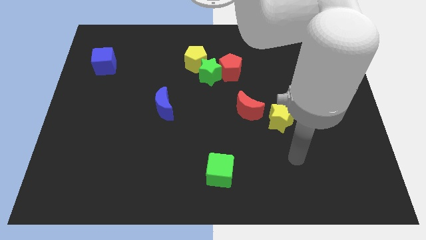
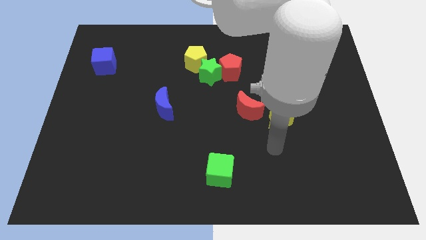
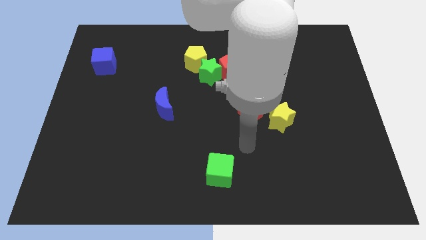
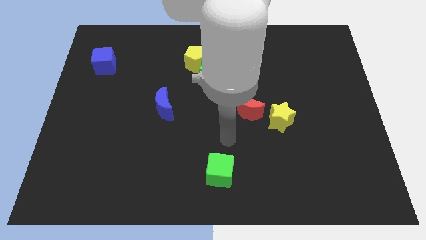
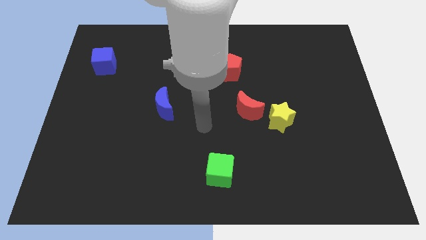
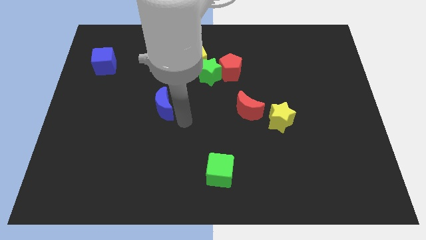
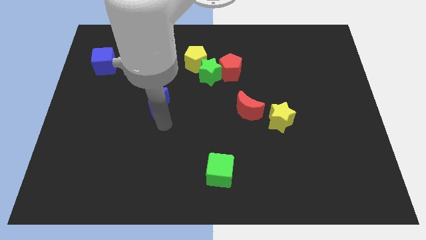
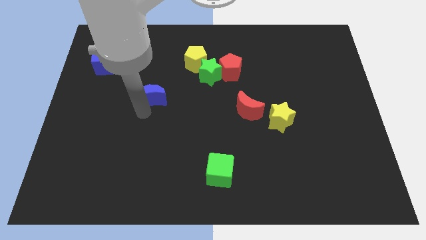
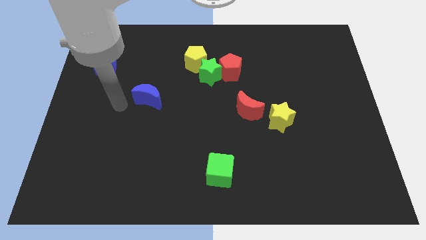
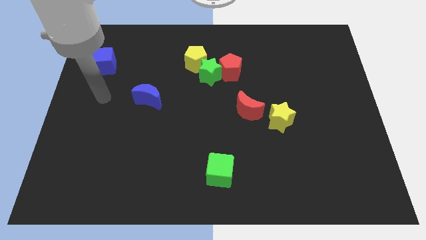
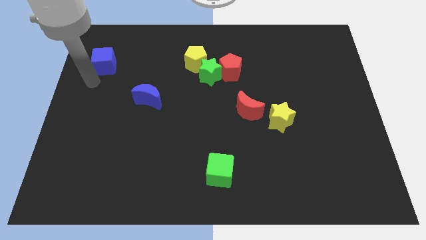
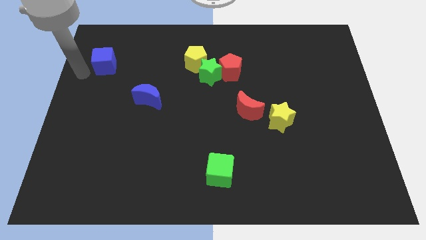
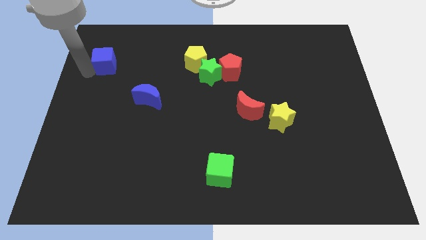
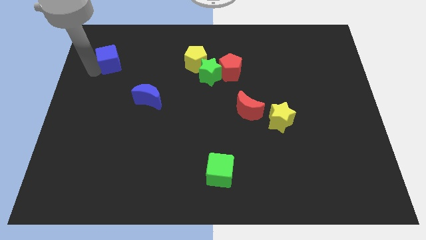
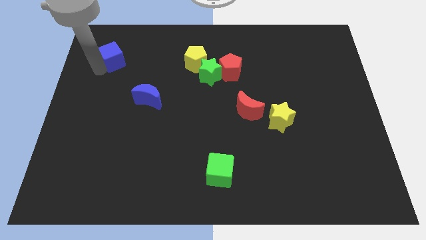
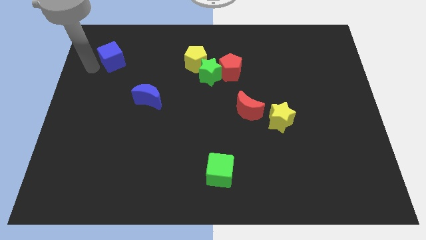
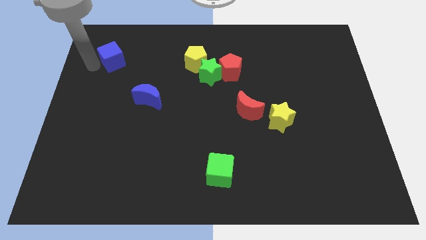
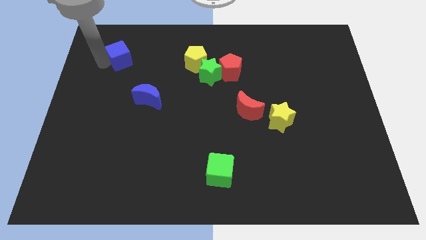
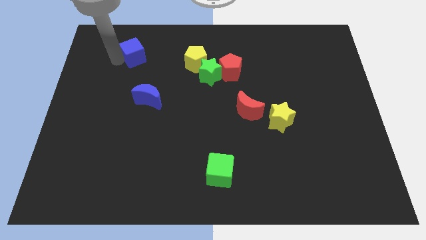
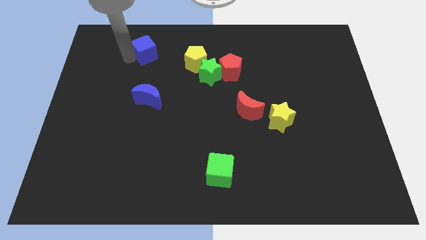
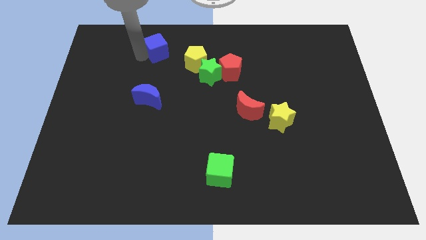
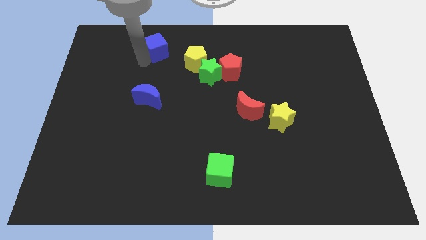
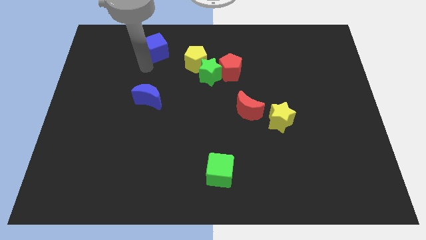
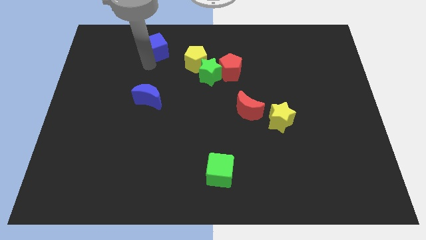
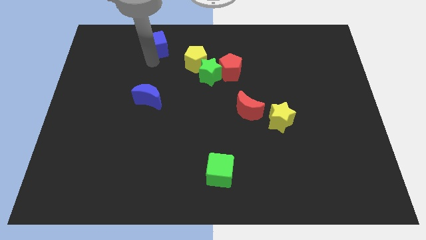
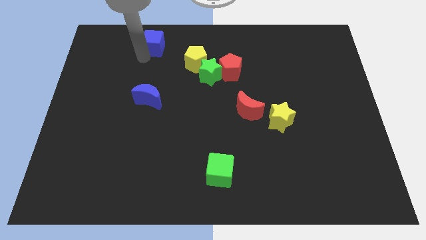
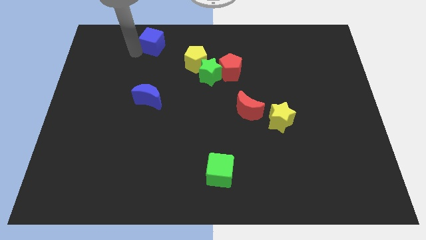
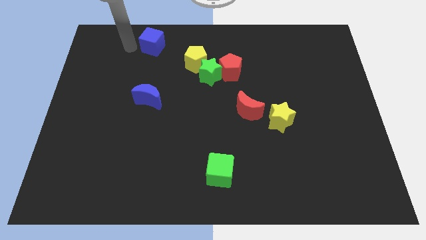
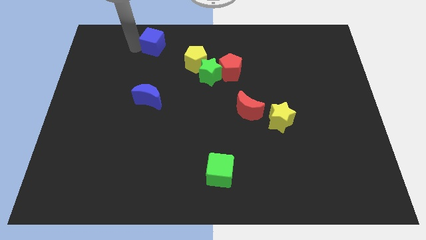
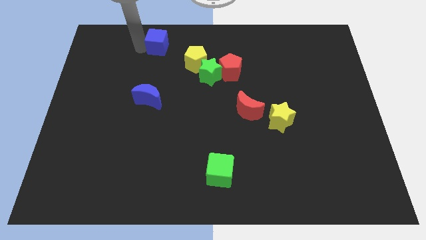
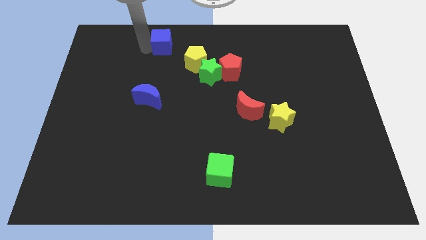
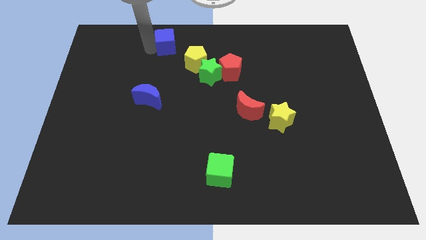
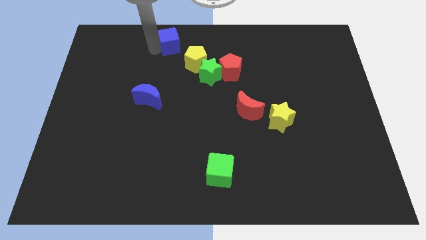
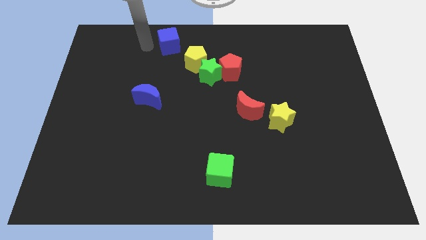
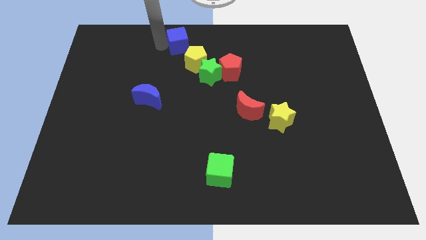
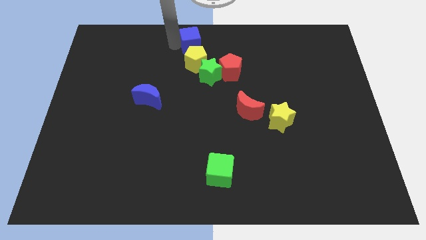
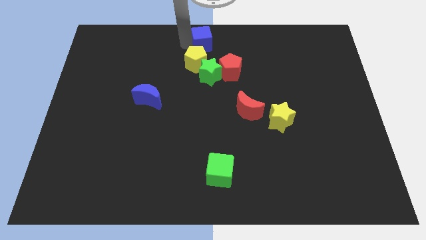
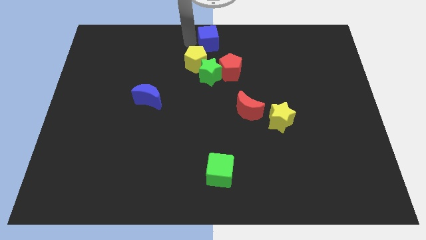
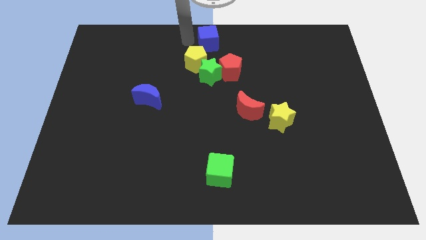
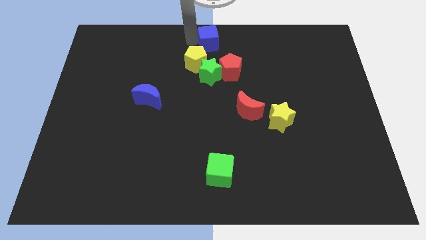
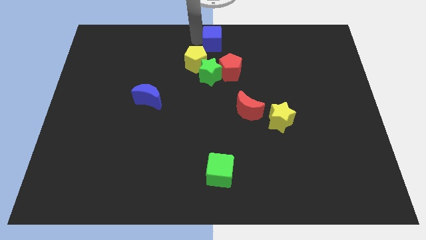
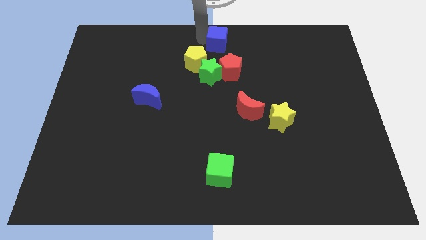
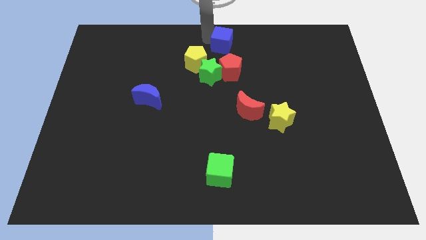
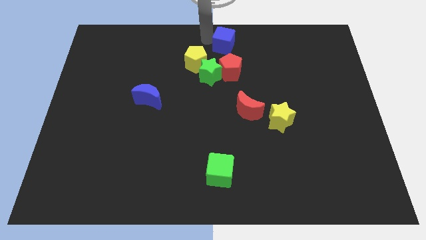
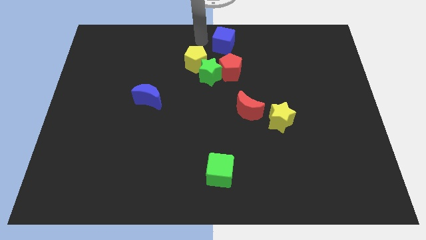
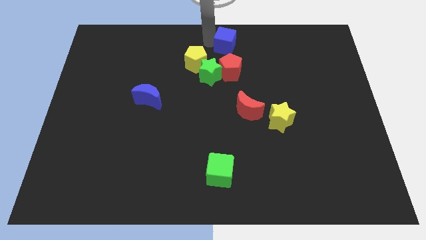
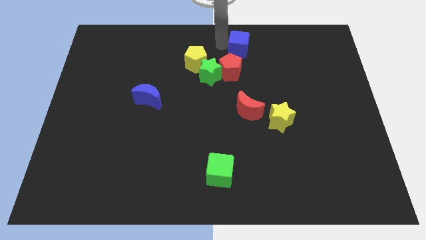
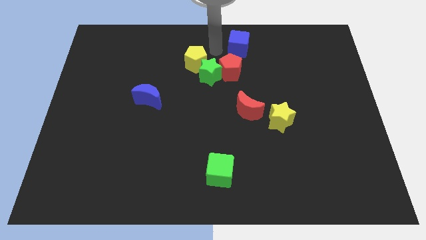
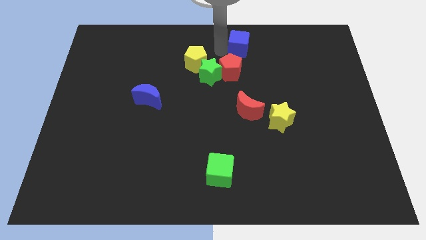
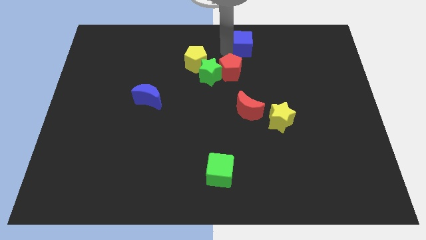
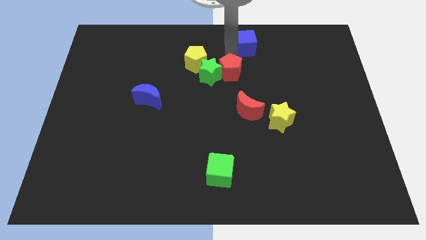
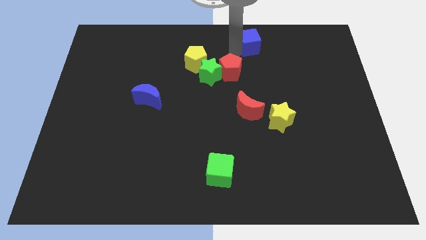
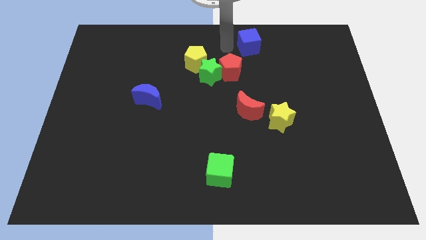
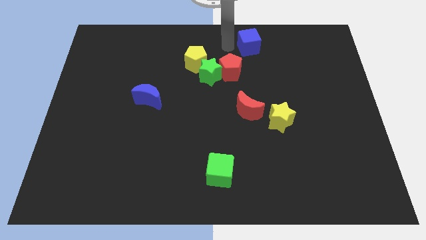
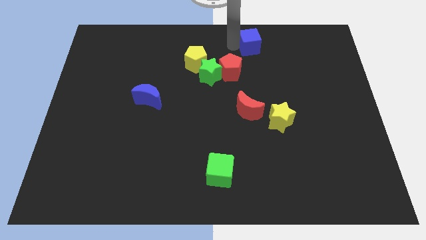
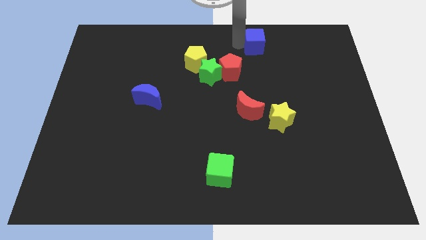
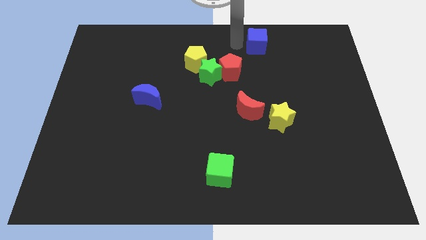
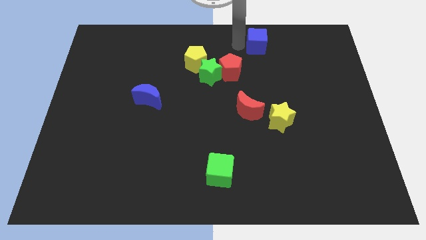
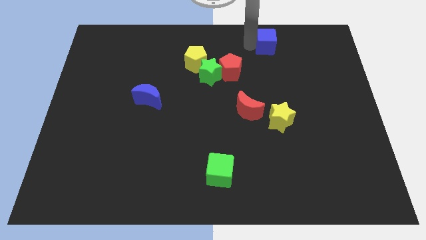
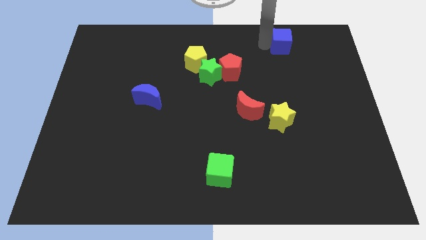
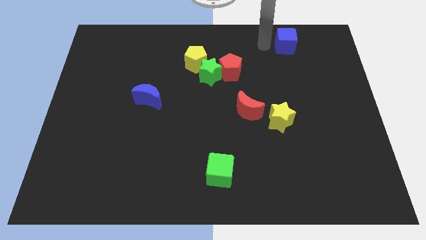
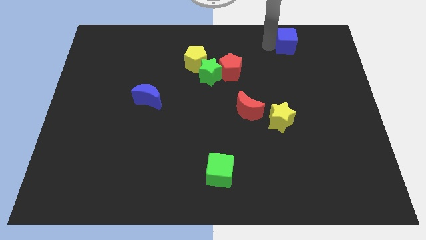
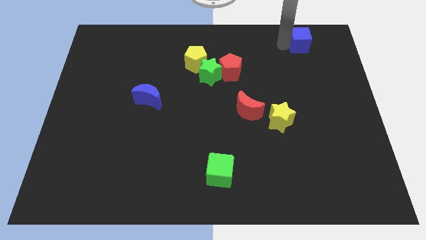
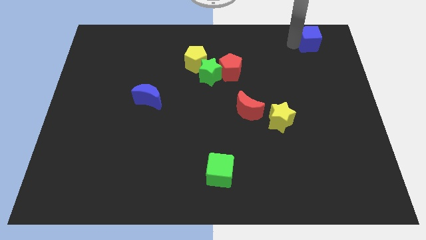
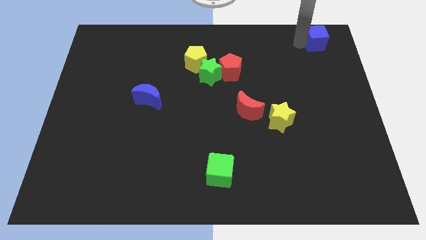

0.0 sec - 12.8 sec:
slide the blue cube to the top right corner

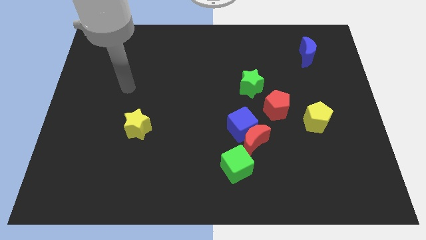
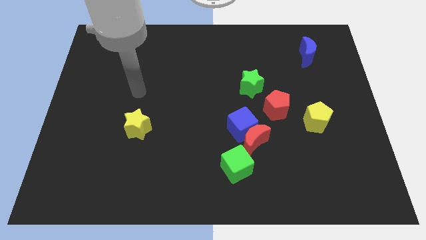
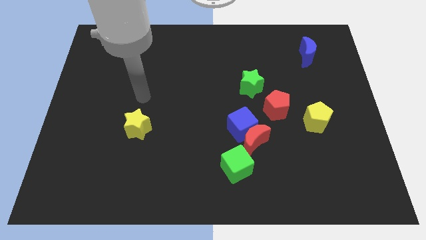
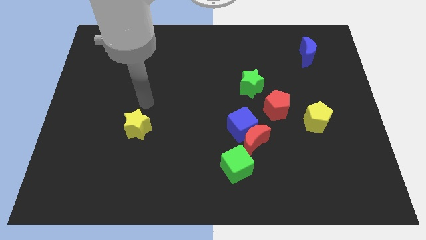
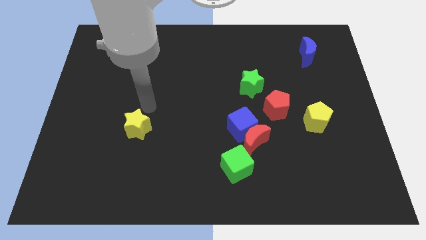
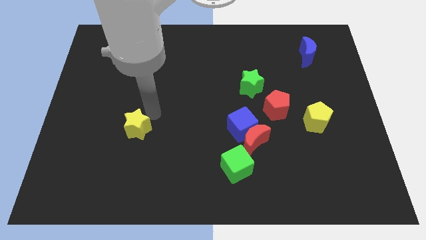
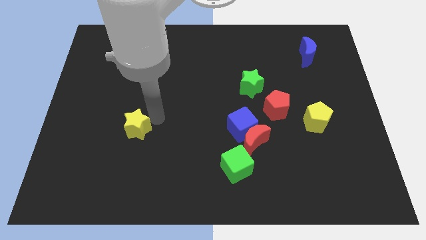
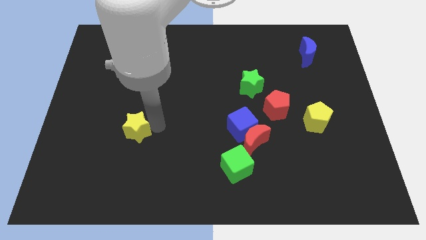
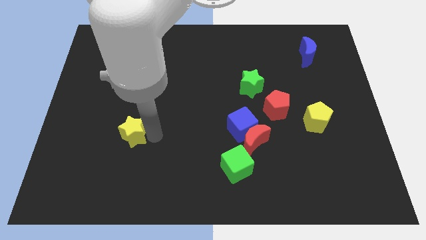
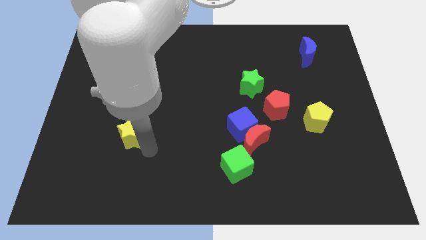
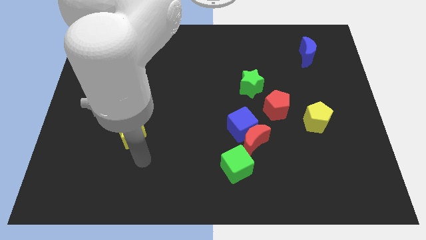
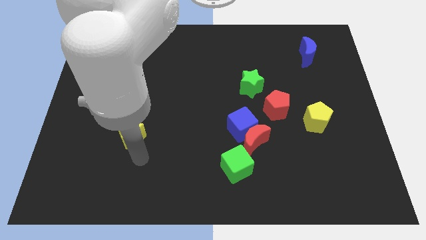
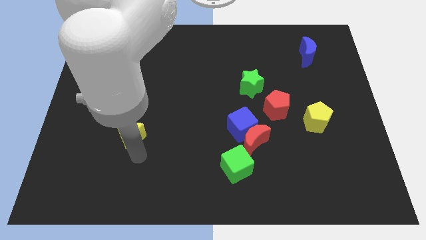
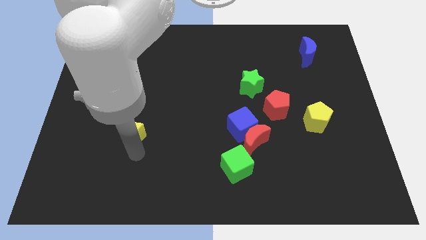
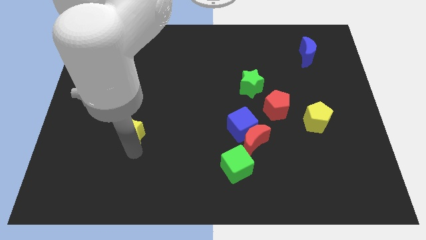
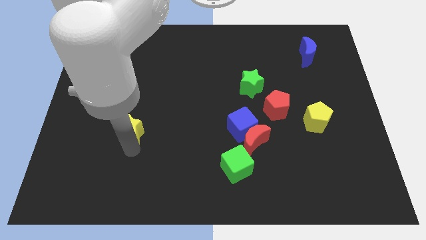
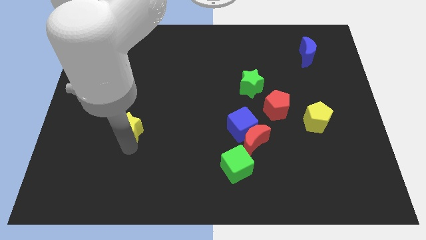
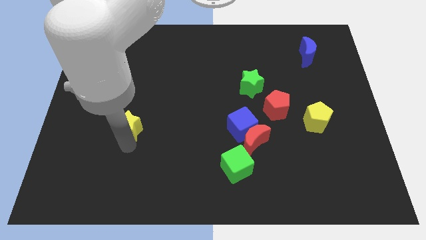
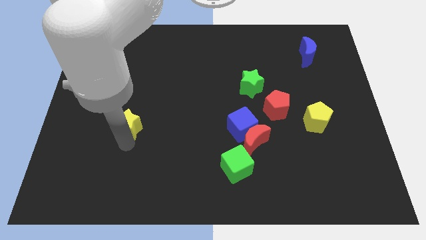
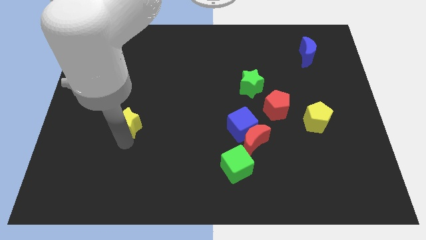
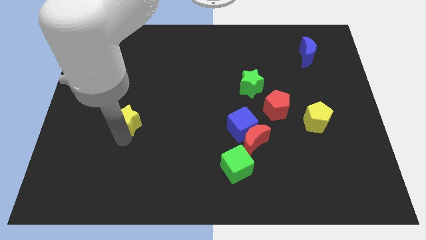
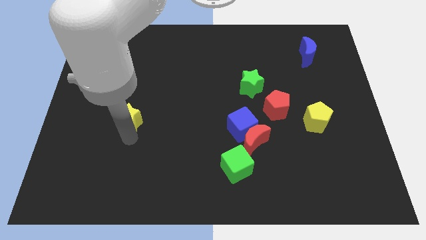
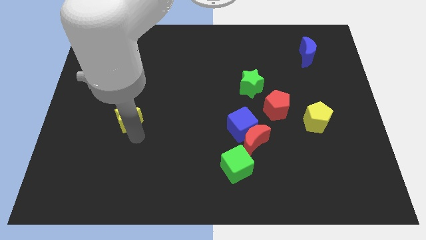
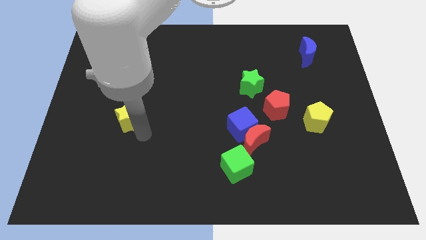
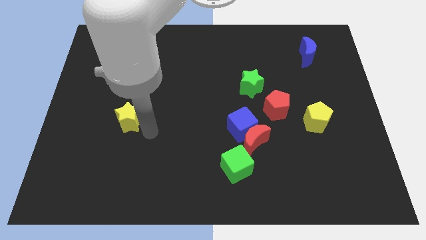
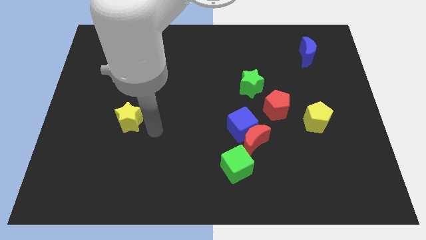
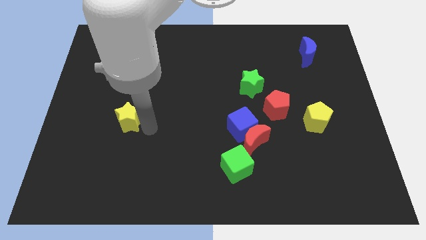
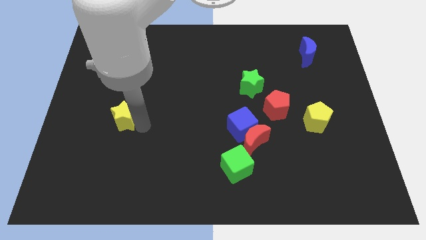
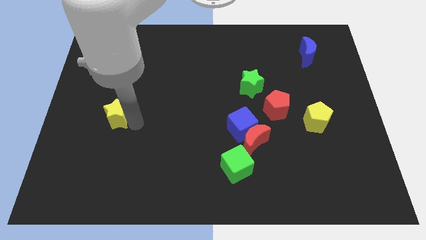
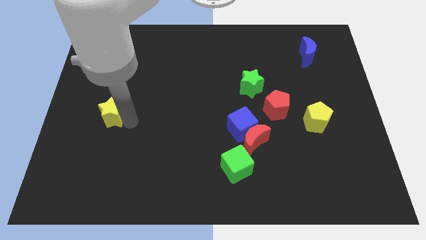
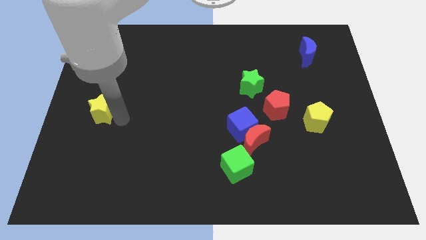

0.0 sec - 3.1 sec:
put the yellow star to the left side of the board
